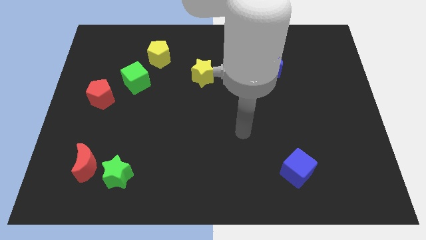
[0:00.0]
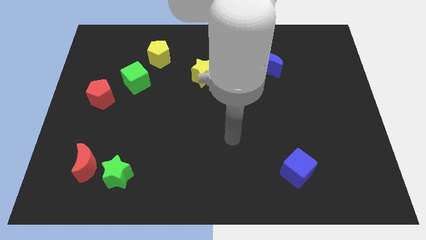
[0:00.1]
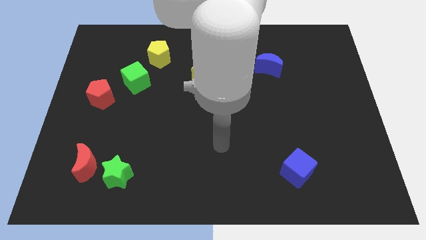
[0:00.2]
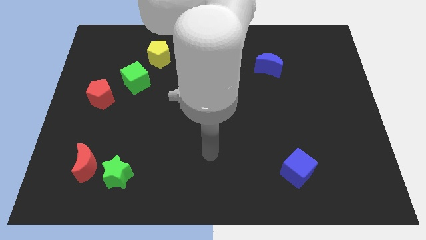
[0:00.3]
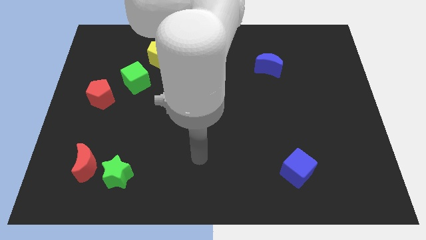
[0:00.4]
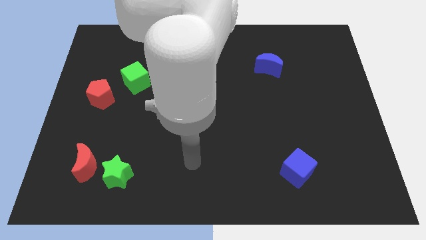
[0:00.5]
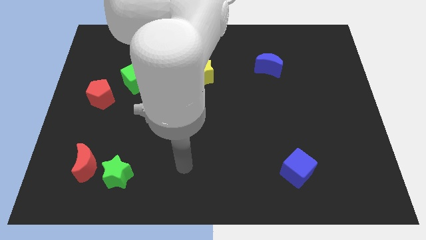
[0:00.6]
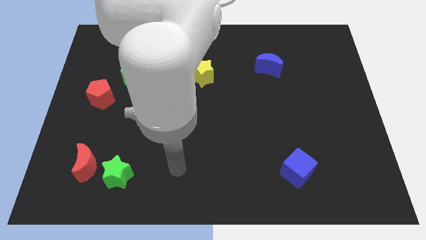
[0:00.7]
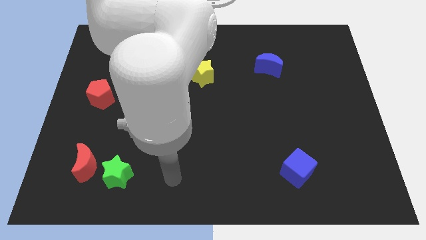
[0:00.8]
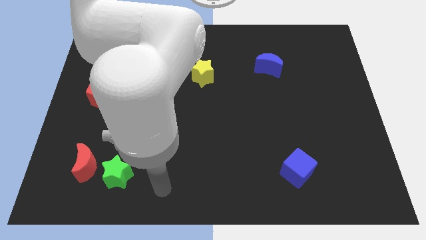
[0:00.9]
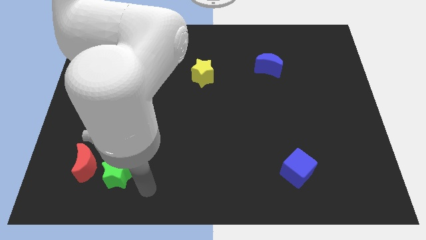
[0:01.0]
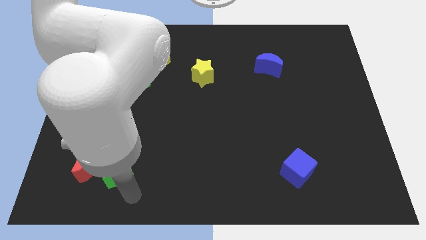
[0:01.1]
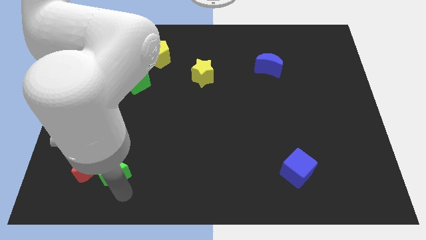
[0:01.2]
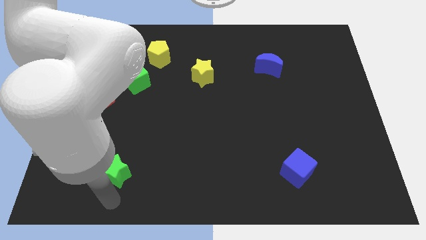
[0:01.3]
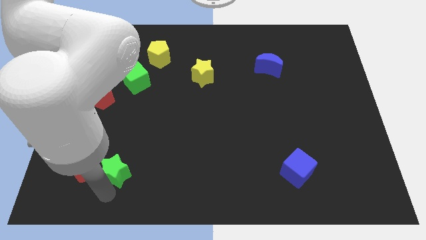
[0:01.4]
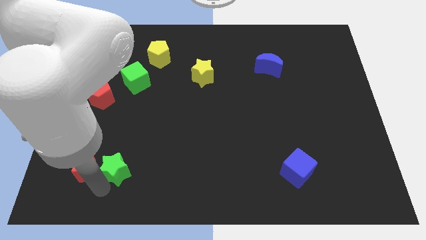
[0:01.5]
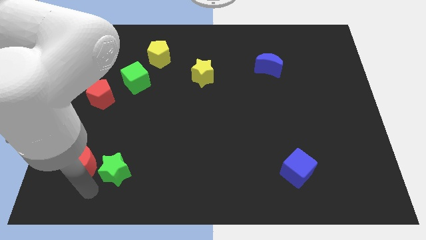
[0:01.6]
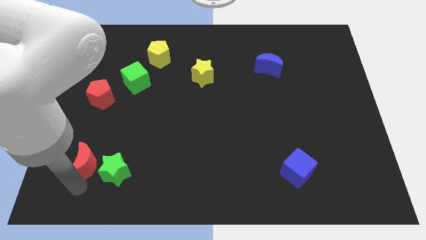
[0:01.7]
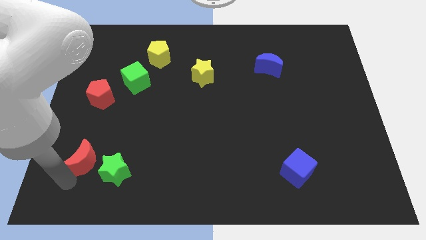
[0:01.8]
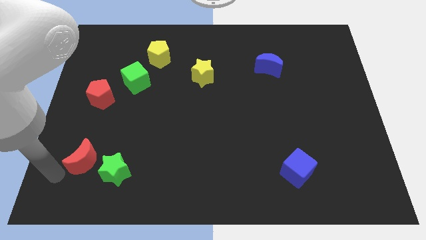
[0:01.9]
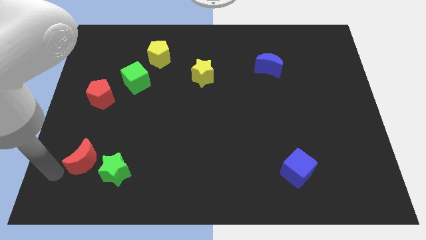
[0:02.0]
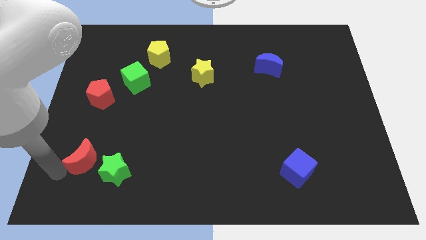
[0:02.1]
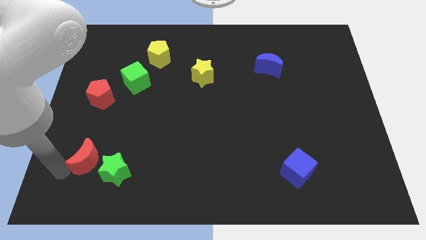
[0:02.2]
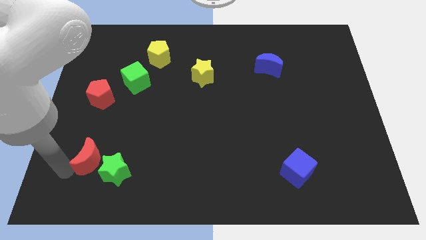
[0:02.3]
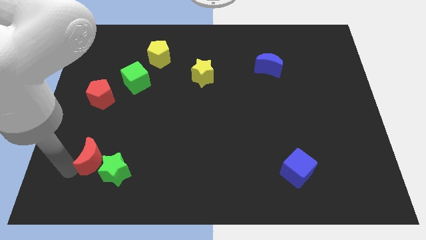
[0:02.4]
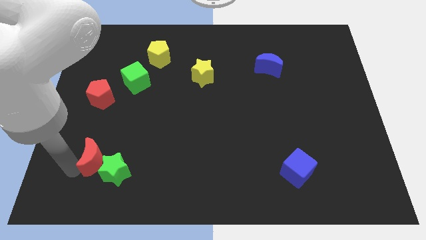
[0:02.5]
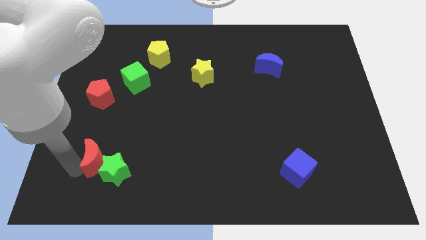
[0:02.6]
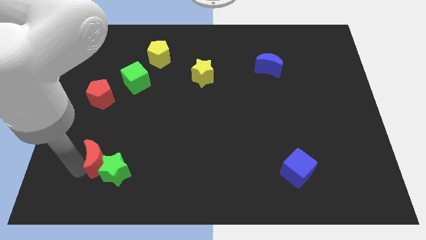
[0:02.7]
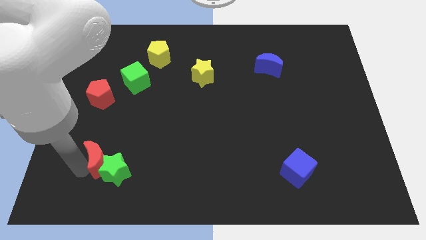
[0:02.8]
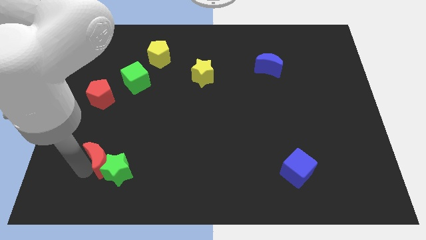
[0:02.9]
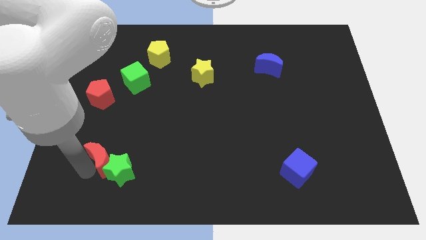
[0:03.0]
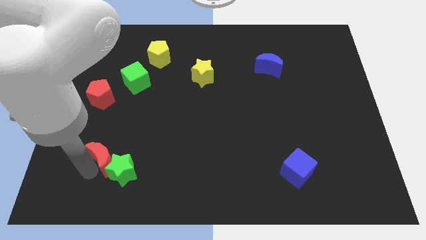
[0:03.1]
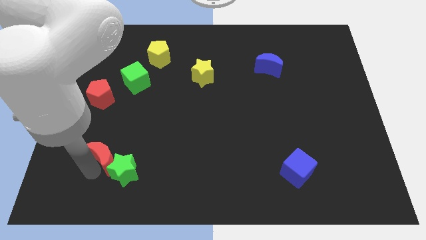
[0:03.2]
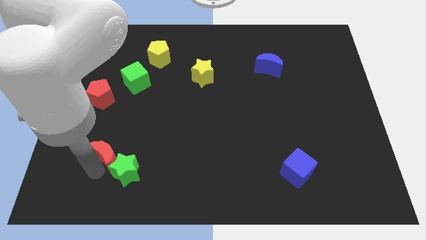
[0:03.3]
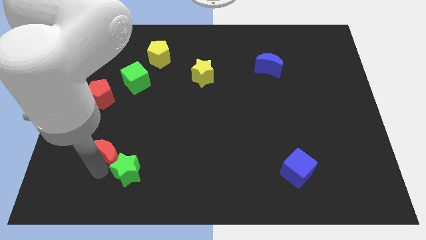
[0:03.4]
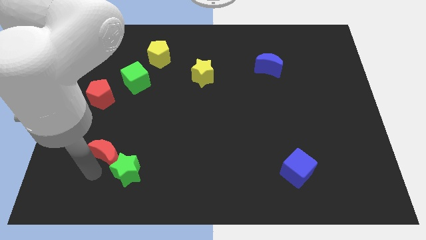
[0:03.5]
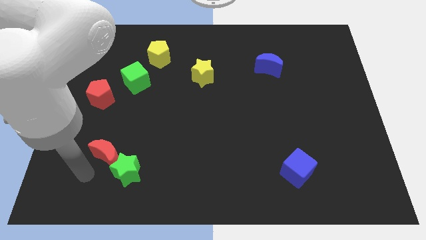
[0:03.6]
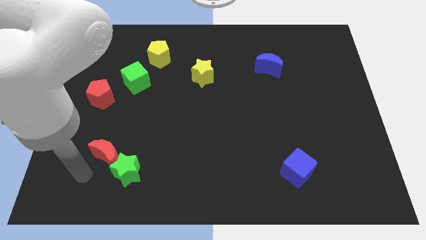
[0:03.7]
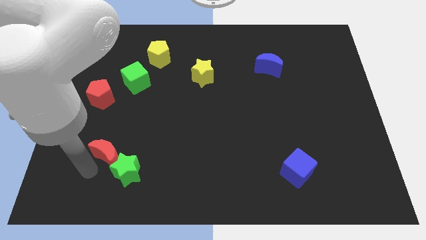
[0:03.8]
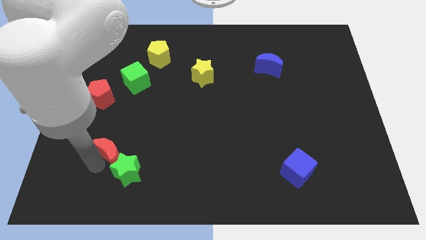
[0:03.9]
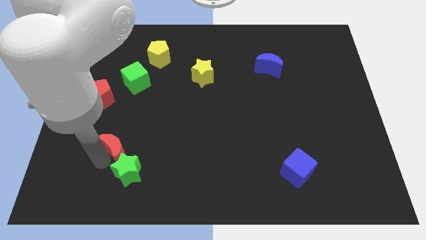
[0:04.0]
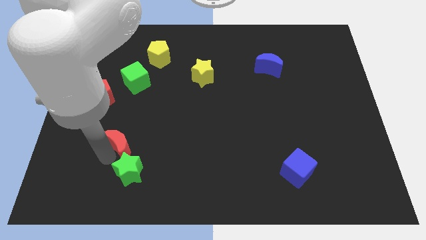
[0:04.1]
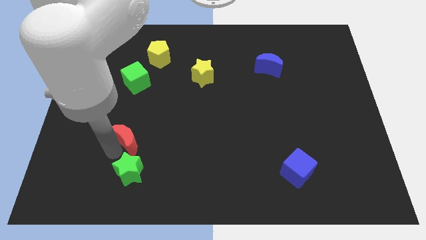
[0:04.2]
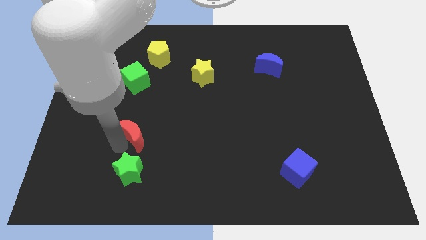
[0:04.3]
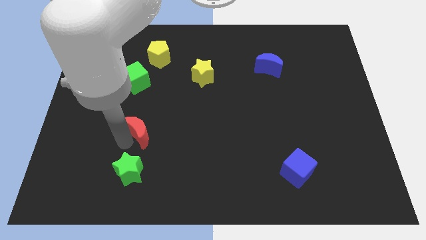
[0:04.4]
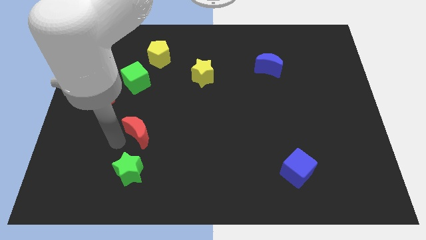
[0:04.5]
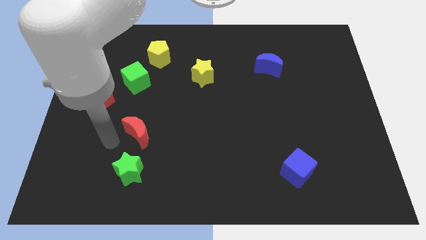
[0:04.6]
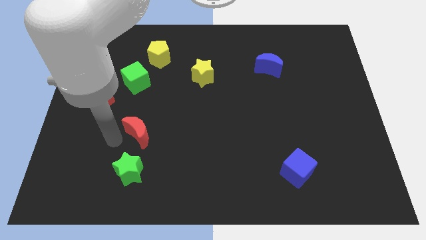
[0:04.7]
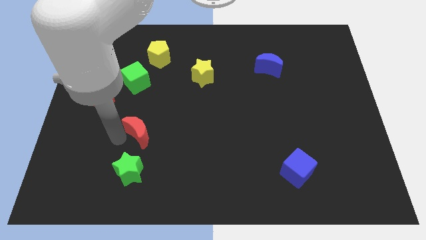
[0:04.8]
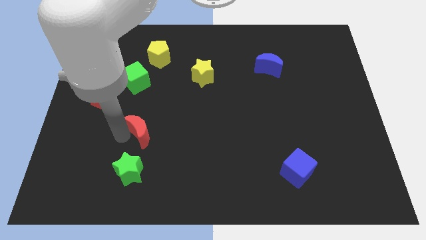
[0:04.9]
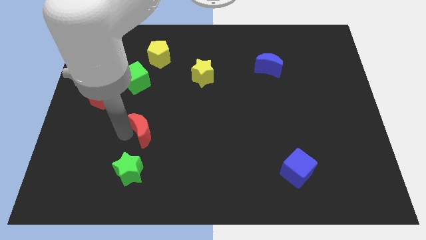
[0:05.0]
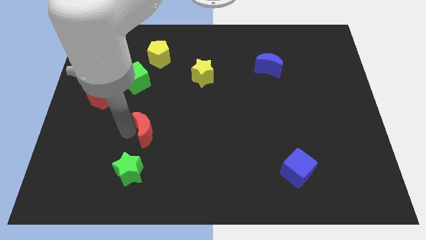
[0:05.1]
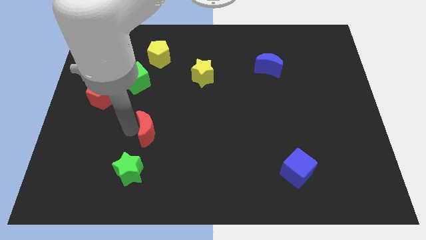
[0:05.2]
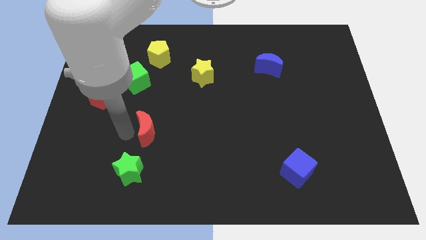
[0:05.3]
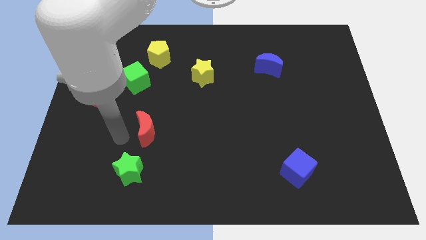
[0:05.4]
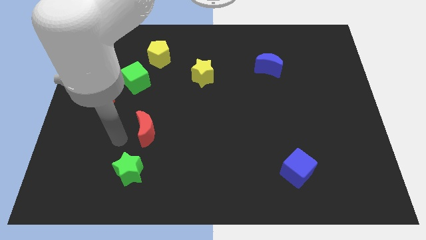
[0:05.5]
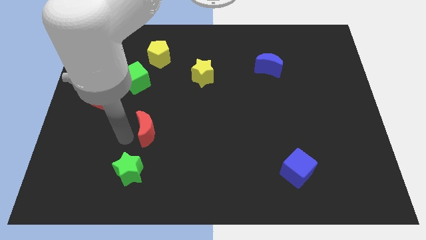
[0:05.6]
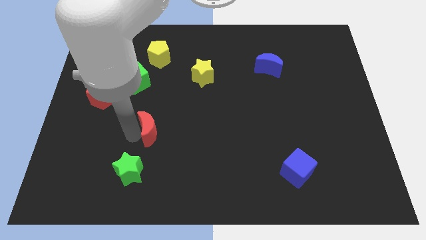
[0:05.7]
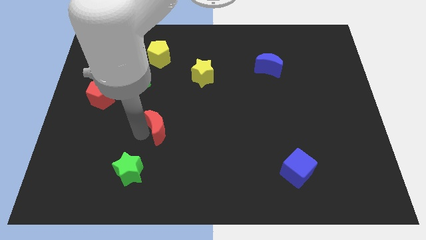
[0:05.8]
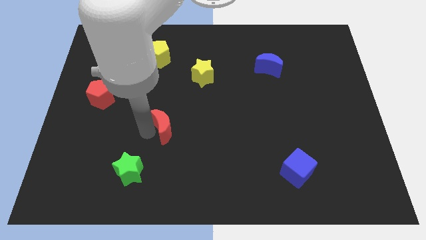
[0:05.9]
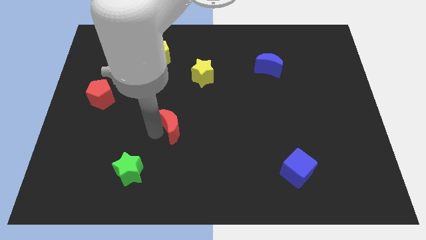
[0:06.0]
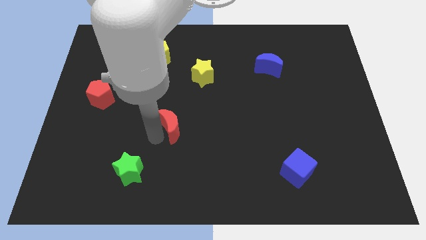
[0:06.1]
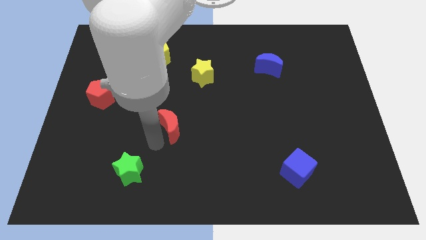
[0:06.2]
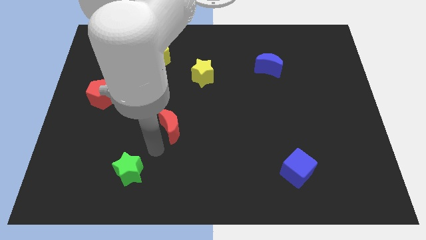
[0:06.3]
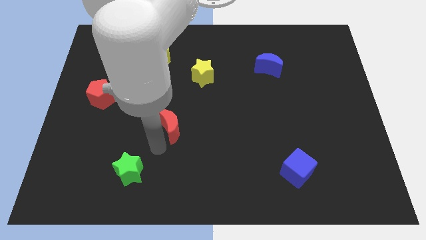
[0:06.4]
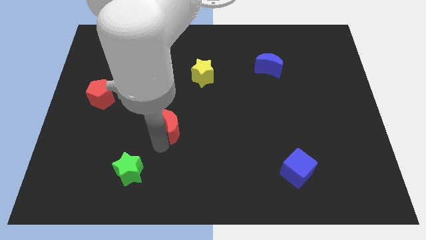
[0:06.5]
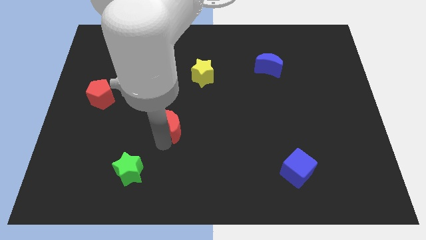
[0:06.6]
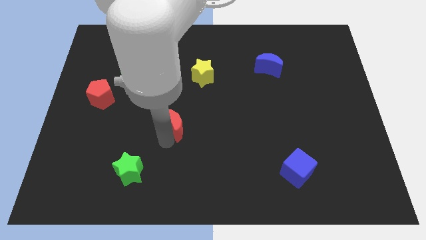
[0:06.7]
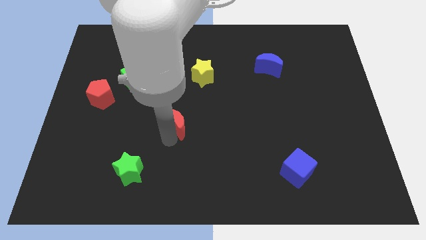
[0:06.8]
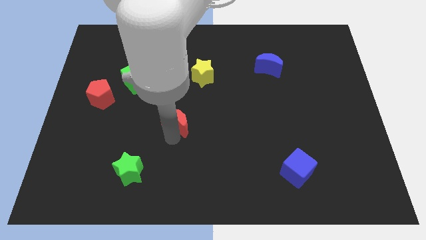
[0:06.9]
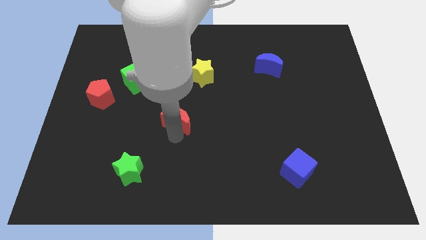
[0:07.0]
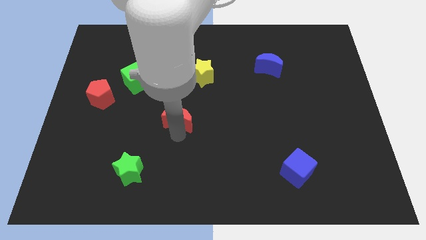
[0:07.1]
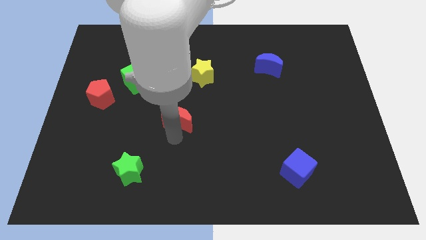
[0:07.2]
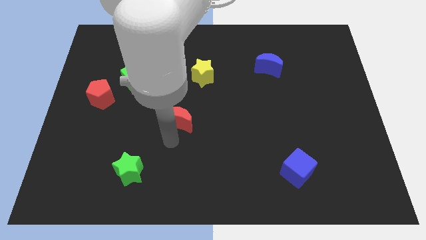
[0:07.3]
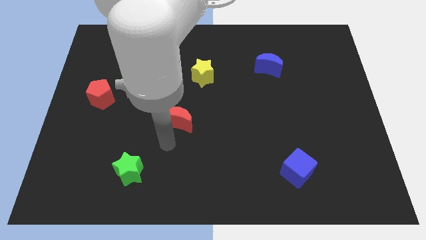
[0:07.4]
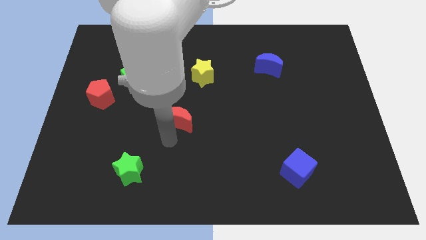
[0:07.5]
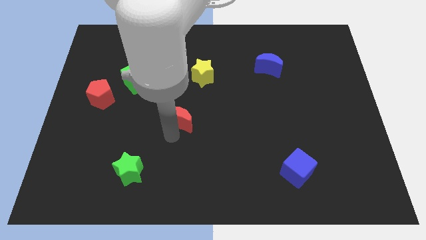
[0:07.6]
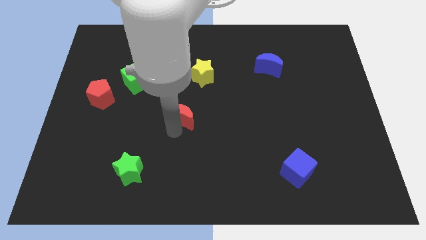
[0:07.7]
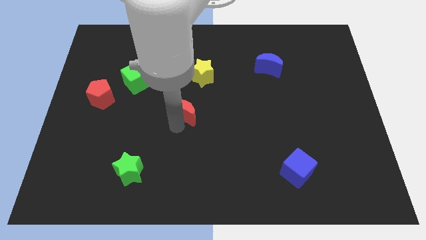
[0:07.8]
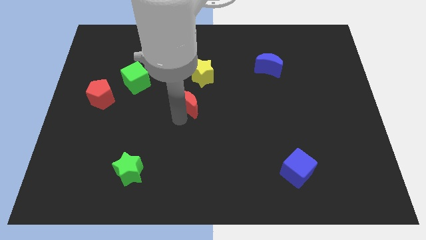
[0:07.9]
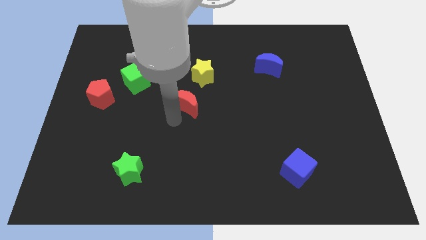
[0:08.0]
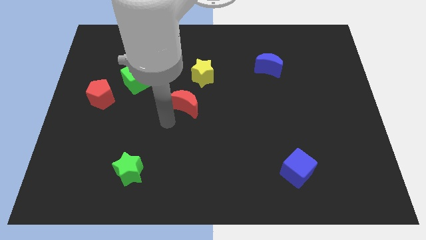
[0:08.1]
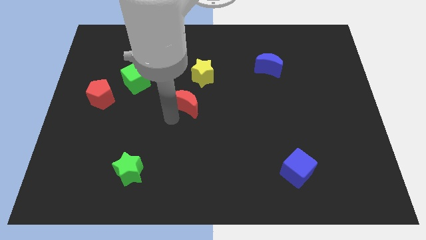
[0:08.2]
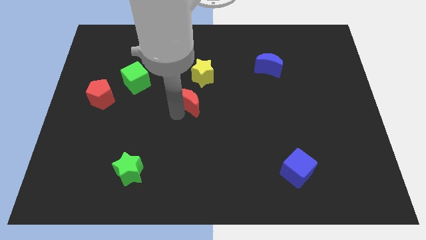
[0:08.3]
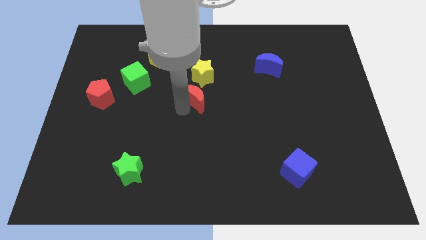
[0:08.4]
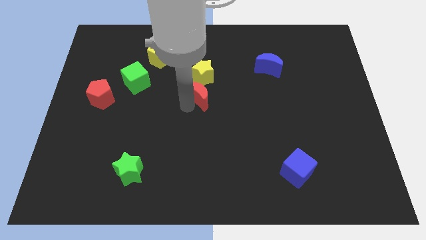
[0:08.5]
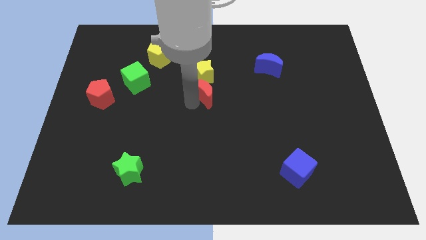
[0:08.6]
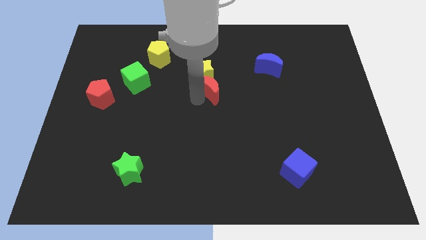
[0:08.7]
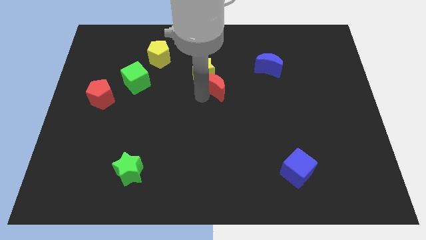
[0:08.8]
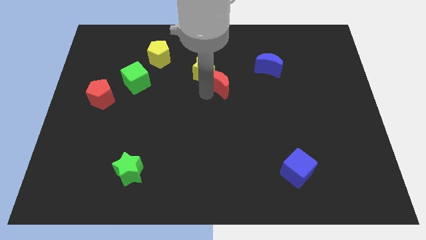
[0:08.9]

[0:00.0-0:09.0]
push the red moon right of the yellow star
